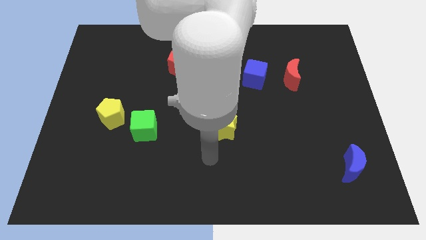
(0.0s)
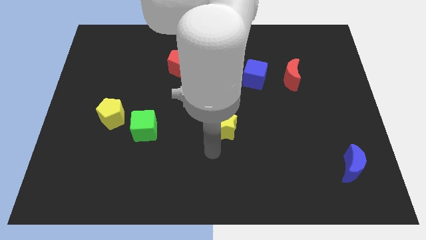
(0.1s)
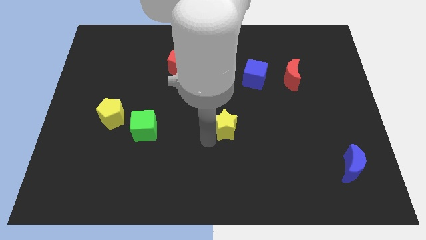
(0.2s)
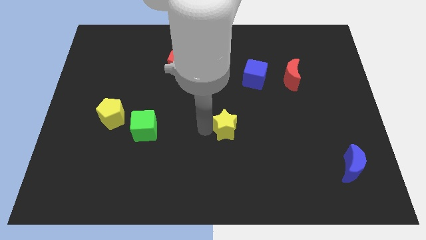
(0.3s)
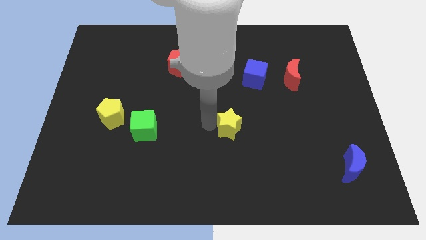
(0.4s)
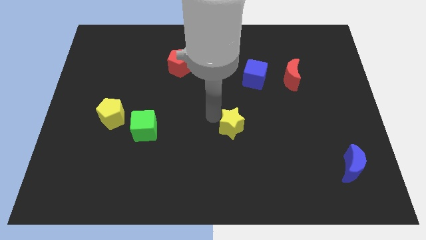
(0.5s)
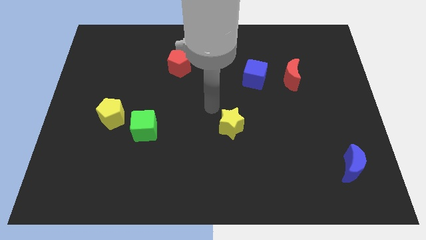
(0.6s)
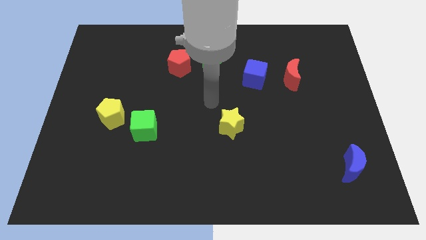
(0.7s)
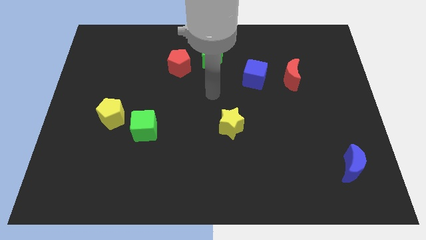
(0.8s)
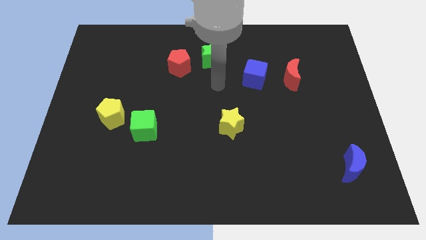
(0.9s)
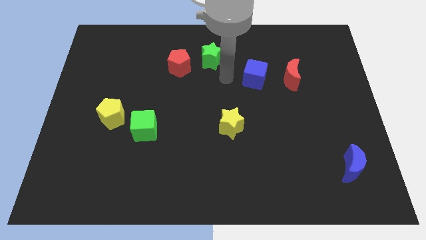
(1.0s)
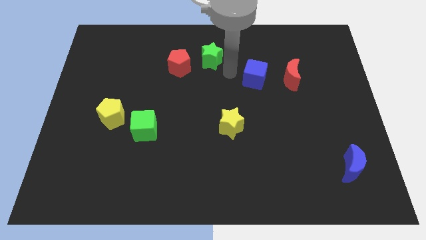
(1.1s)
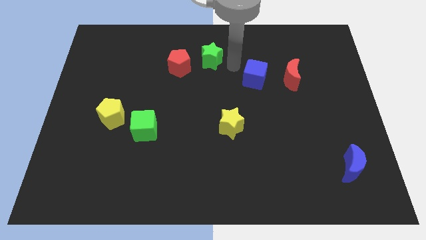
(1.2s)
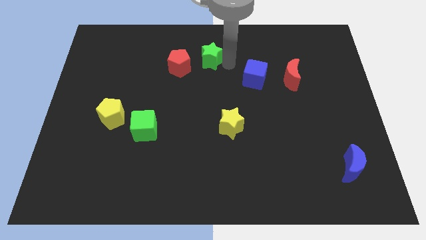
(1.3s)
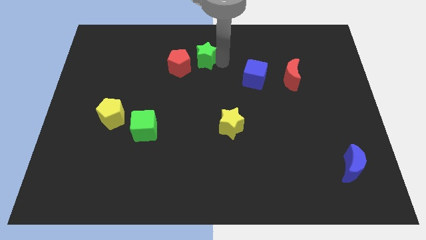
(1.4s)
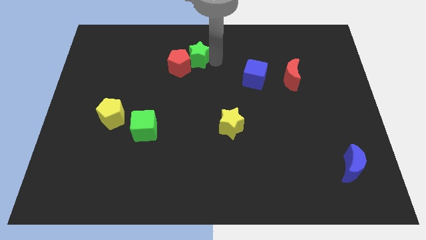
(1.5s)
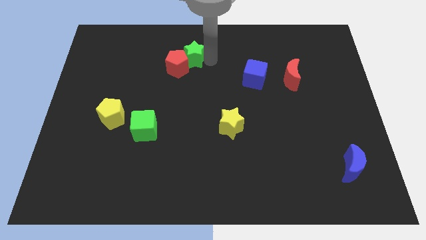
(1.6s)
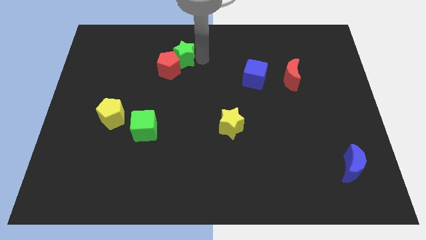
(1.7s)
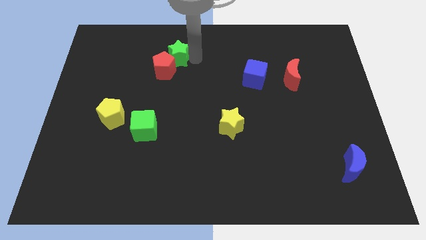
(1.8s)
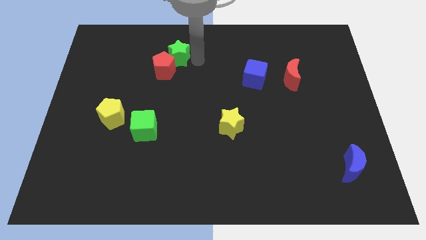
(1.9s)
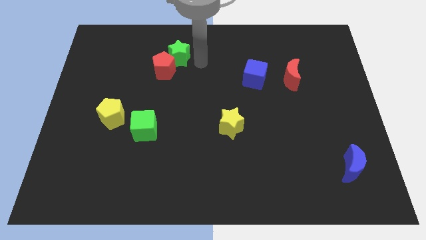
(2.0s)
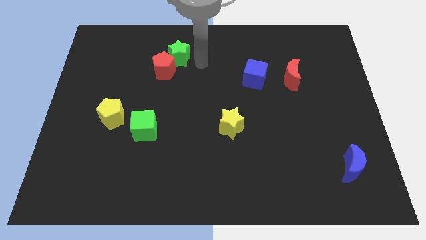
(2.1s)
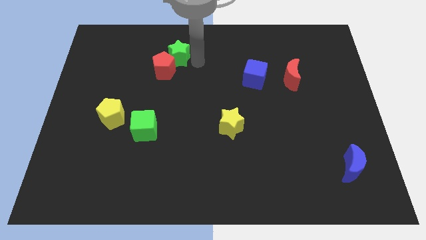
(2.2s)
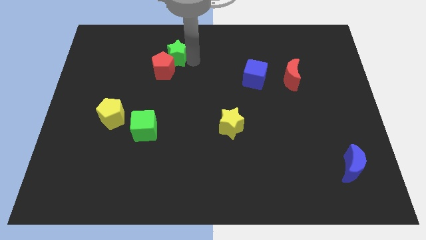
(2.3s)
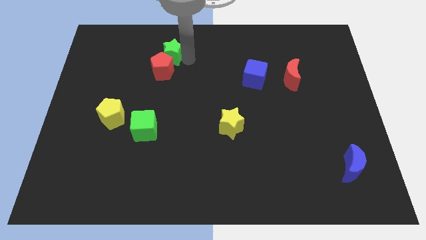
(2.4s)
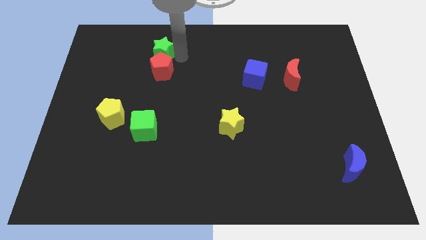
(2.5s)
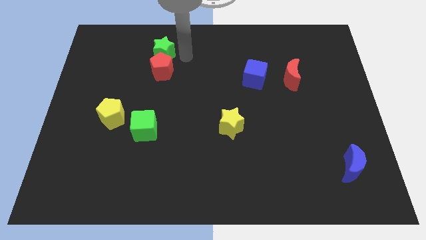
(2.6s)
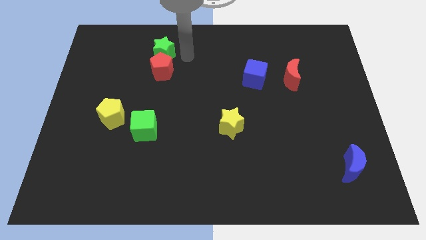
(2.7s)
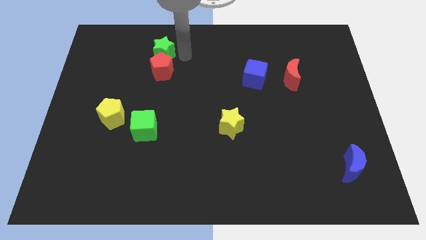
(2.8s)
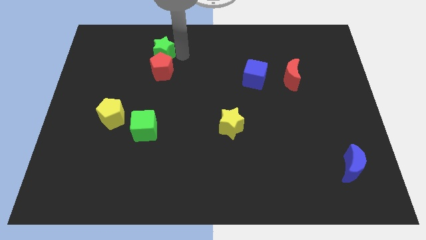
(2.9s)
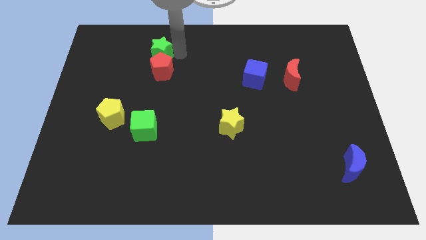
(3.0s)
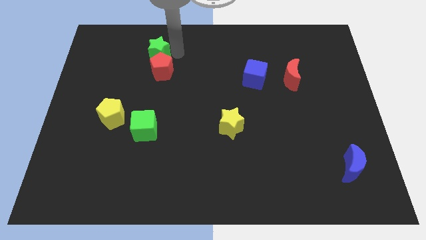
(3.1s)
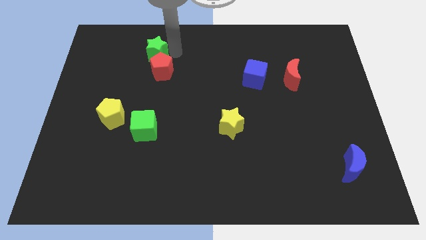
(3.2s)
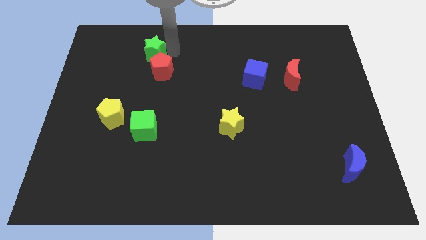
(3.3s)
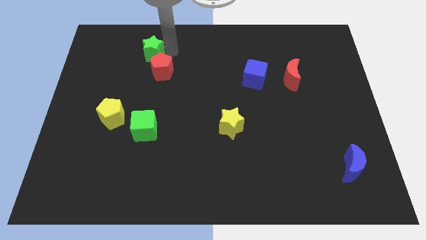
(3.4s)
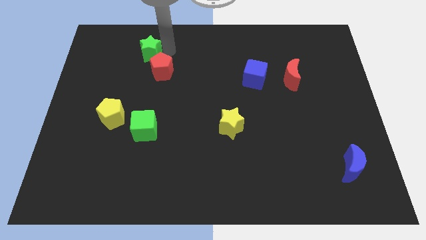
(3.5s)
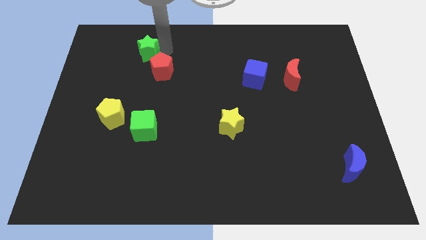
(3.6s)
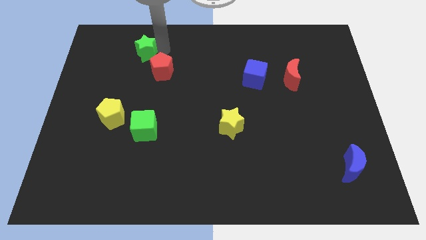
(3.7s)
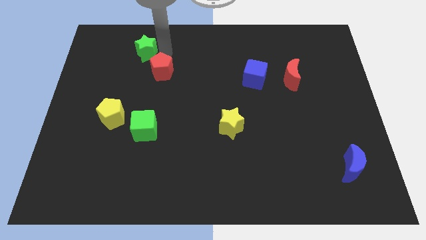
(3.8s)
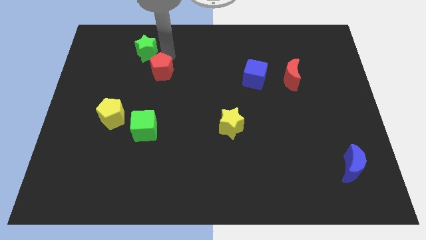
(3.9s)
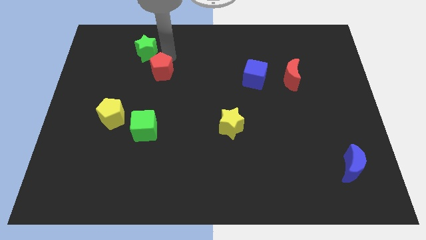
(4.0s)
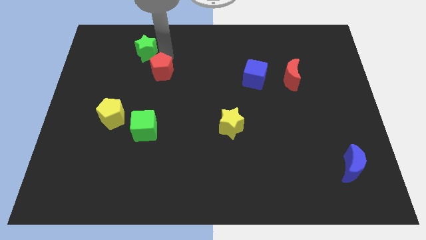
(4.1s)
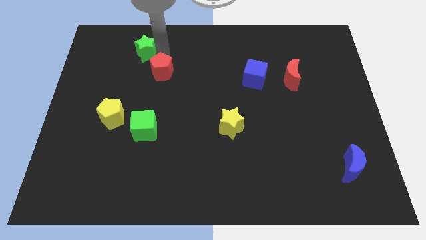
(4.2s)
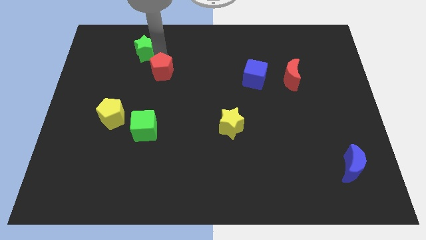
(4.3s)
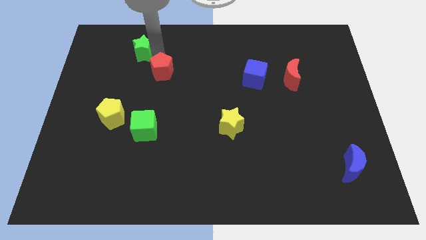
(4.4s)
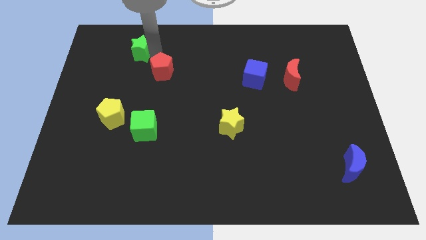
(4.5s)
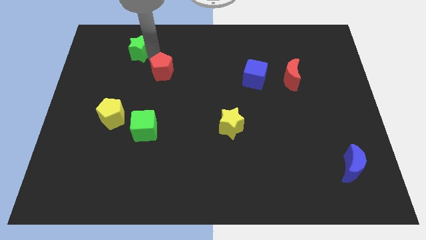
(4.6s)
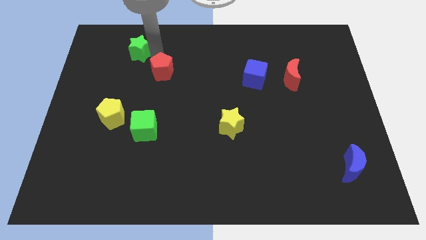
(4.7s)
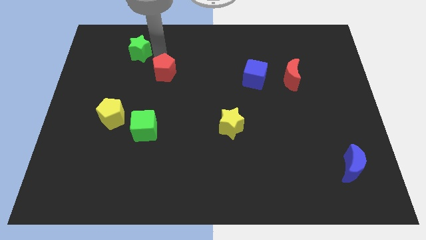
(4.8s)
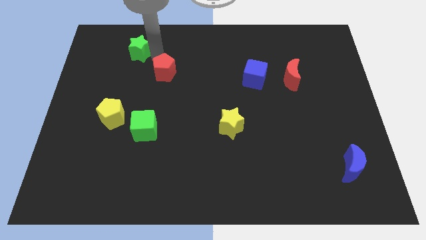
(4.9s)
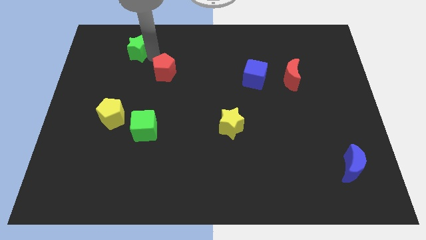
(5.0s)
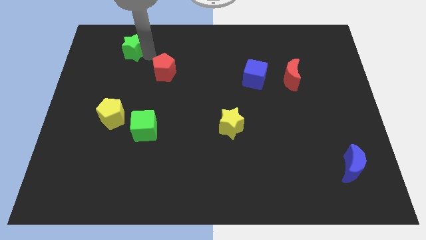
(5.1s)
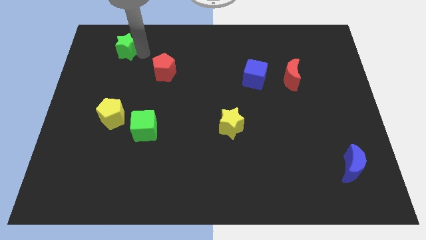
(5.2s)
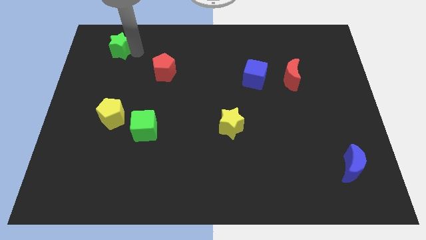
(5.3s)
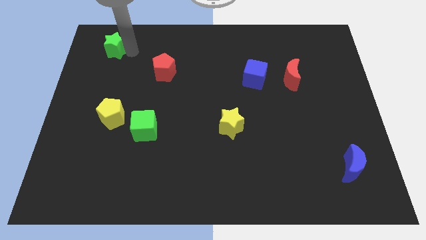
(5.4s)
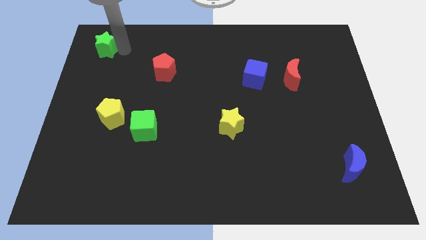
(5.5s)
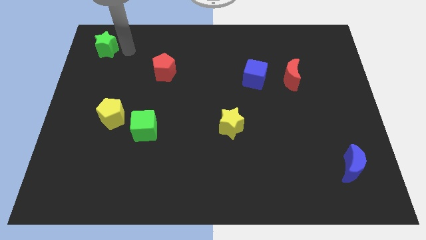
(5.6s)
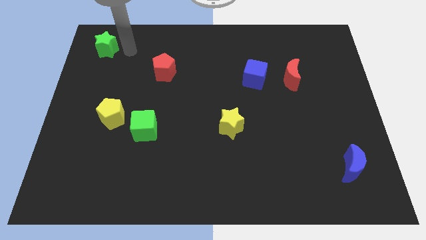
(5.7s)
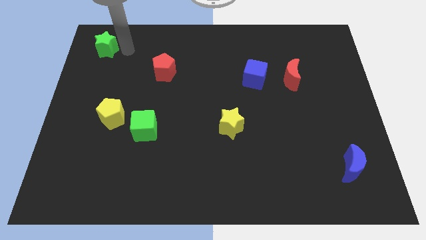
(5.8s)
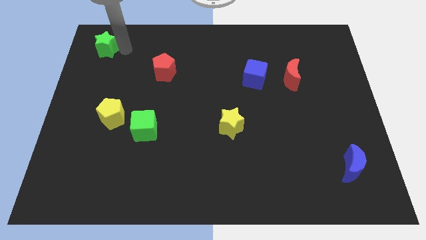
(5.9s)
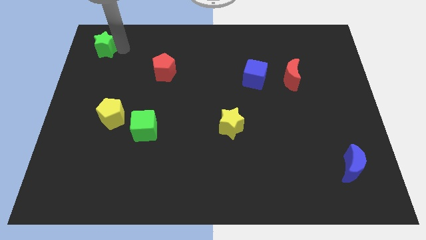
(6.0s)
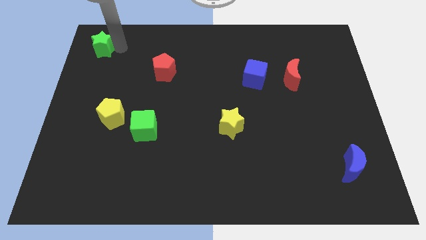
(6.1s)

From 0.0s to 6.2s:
slide the green star to the top left of the board
